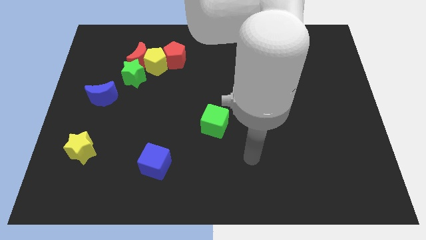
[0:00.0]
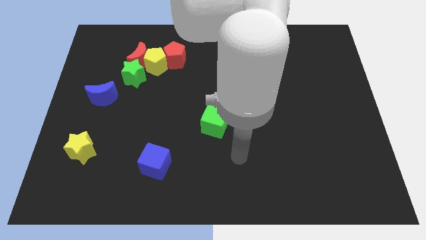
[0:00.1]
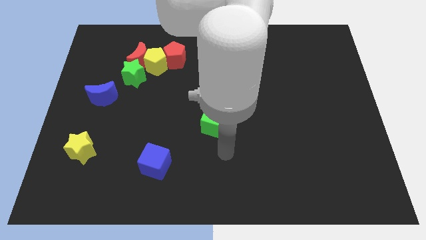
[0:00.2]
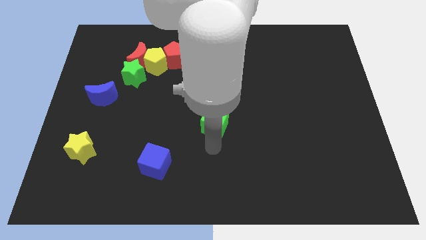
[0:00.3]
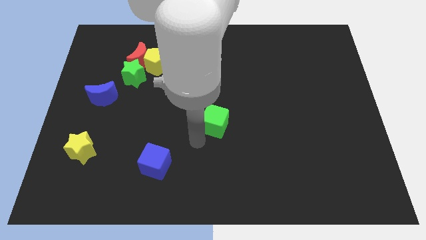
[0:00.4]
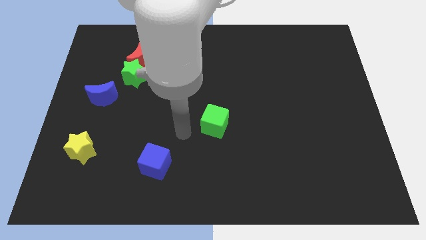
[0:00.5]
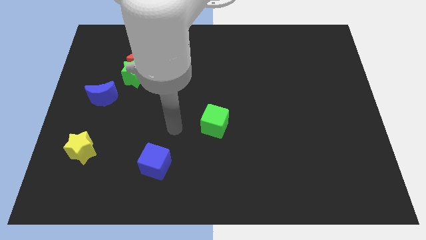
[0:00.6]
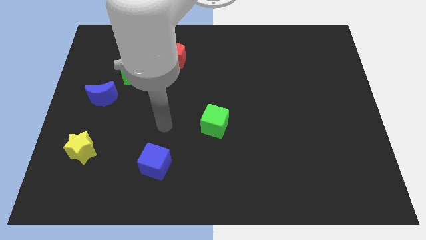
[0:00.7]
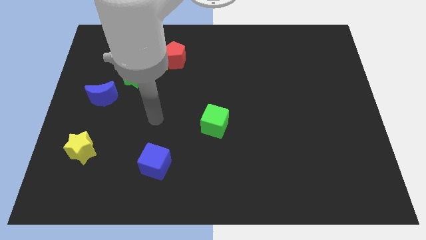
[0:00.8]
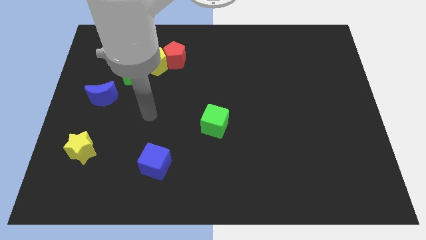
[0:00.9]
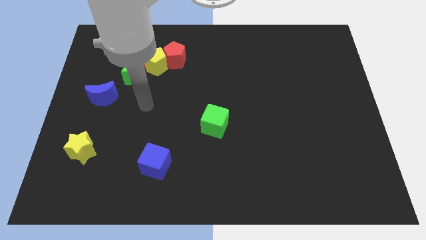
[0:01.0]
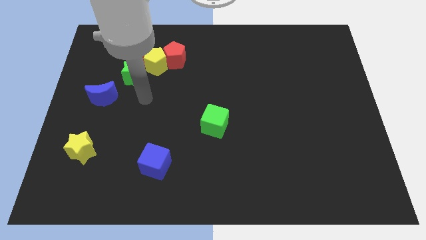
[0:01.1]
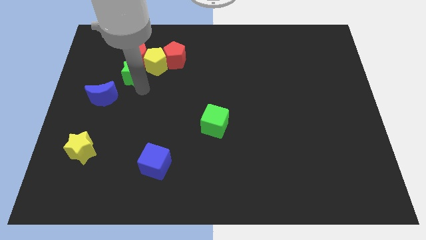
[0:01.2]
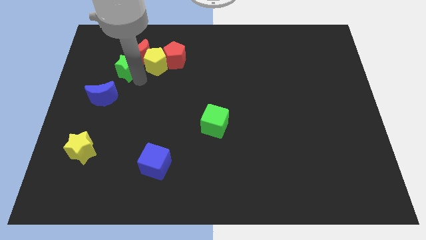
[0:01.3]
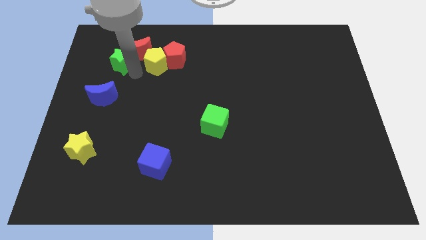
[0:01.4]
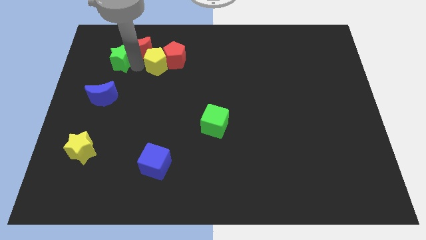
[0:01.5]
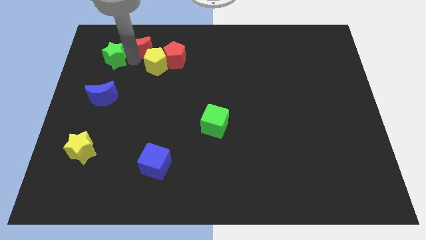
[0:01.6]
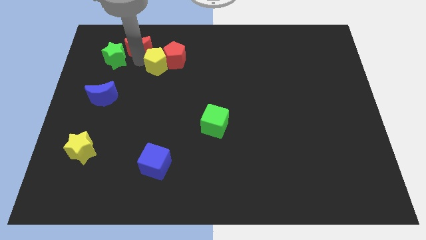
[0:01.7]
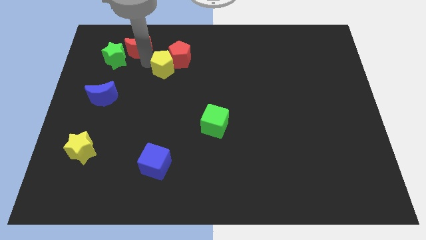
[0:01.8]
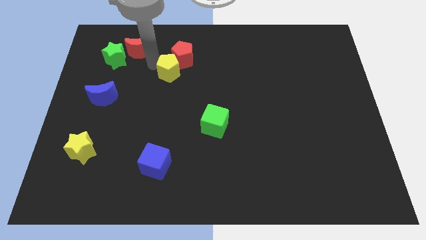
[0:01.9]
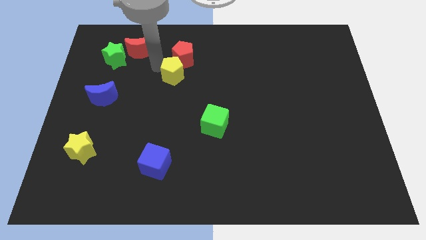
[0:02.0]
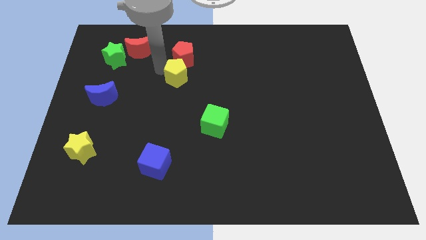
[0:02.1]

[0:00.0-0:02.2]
pull the yellow pentagon apart from the red moon, red pentagon, and green star

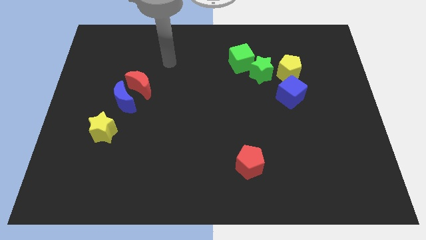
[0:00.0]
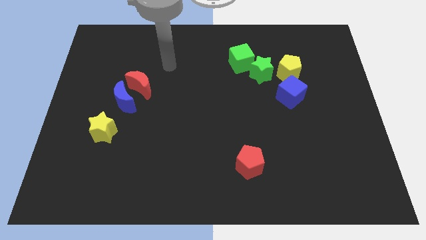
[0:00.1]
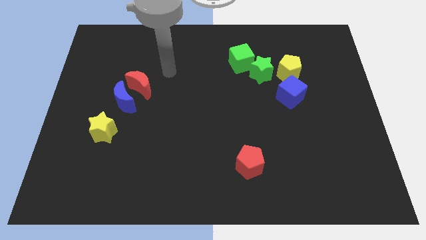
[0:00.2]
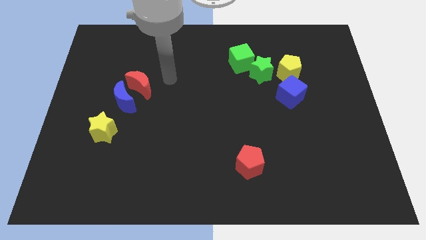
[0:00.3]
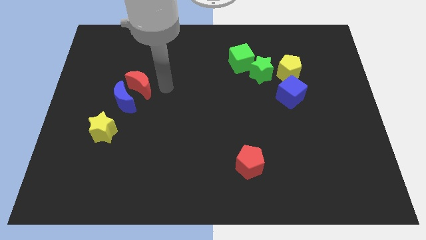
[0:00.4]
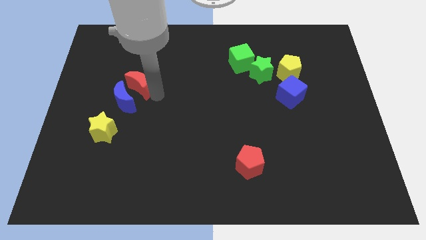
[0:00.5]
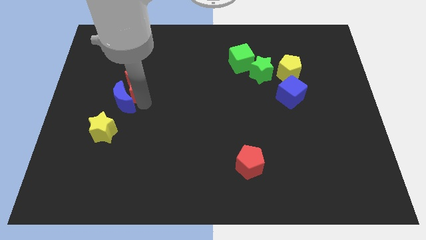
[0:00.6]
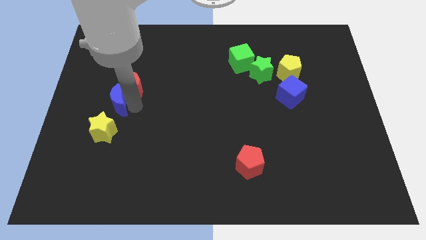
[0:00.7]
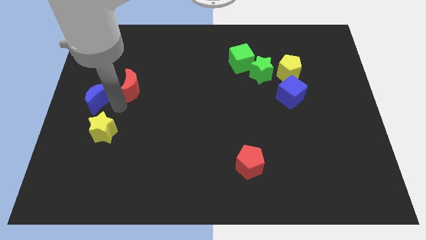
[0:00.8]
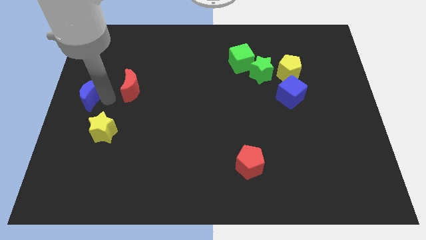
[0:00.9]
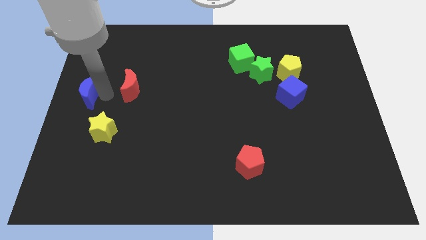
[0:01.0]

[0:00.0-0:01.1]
pull the red moon apart from the blue moon

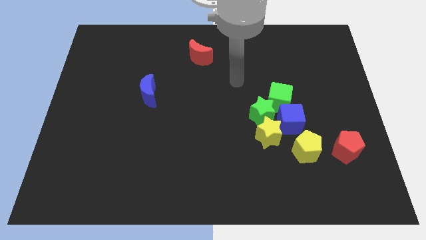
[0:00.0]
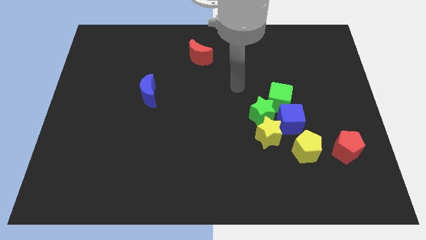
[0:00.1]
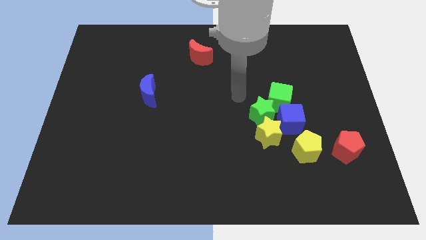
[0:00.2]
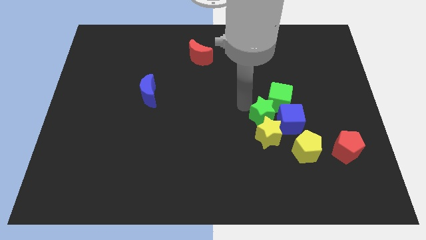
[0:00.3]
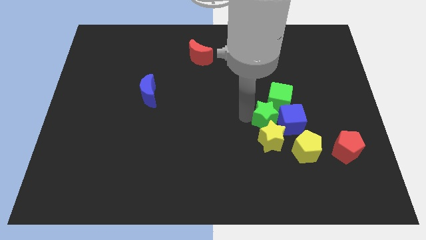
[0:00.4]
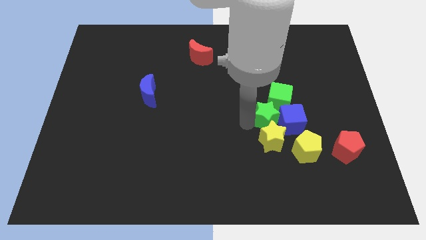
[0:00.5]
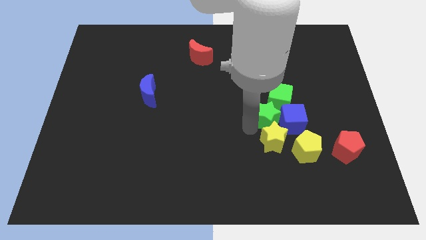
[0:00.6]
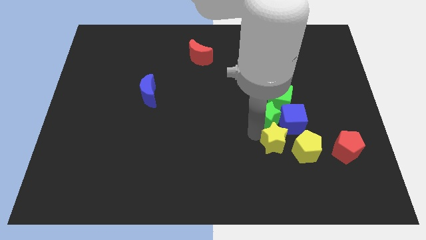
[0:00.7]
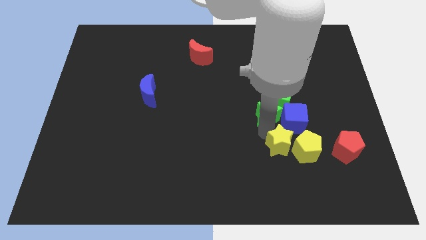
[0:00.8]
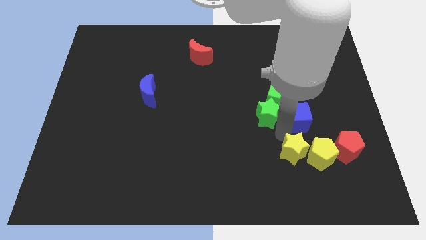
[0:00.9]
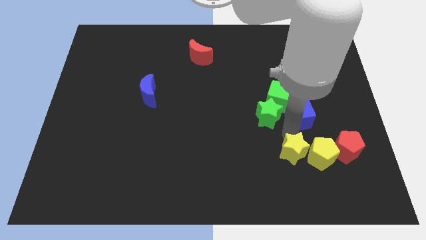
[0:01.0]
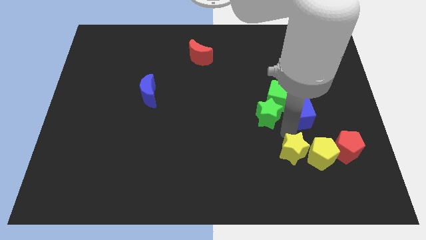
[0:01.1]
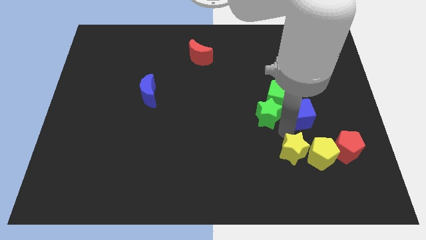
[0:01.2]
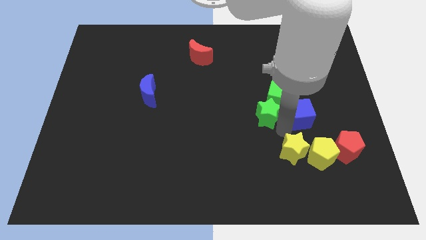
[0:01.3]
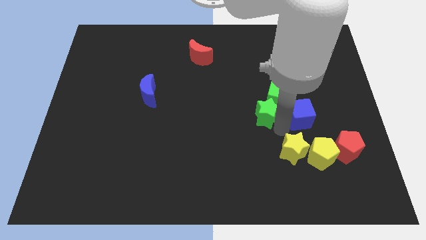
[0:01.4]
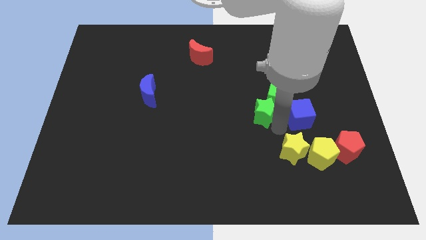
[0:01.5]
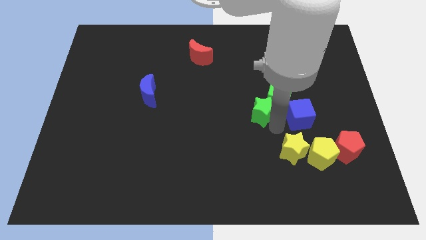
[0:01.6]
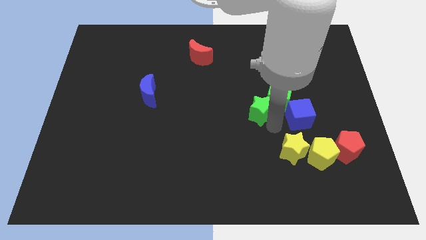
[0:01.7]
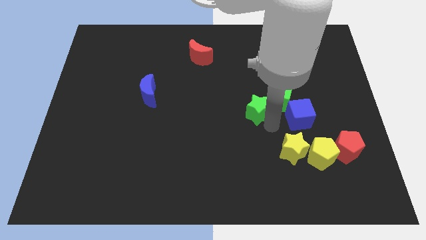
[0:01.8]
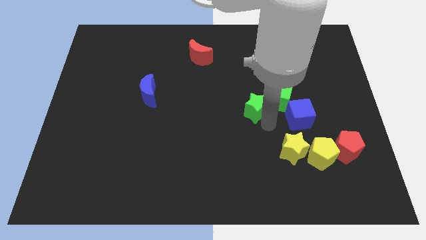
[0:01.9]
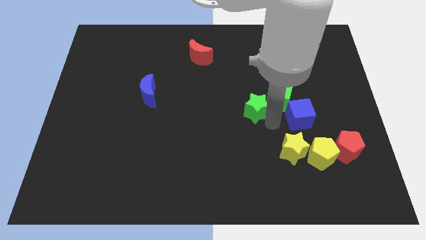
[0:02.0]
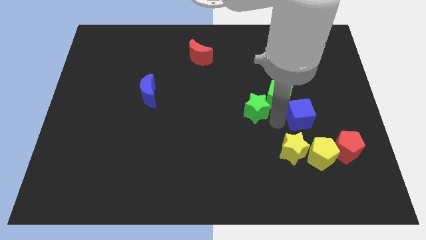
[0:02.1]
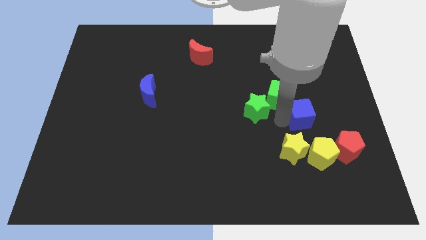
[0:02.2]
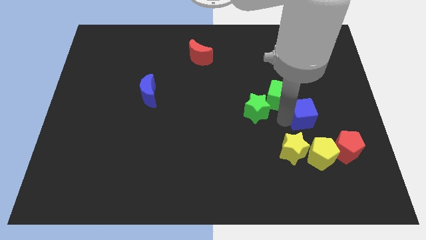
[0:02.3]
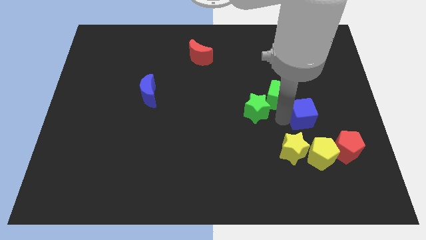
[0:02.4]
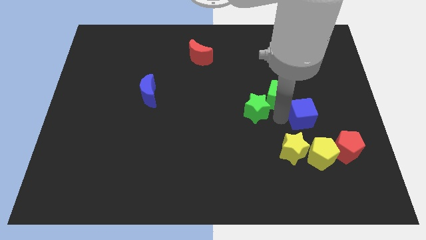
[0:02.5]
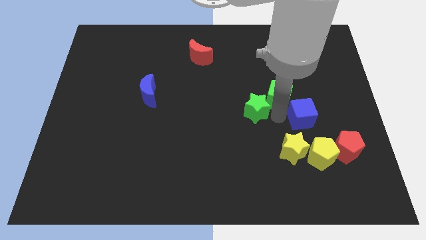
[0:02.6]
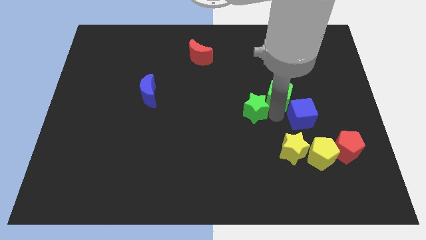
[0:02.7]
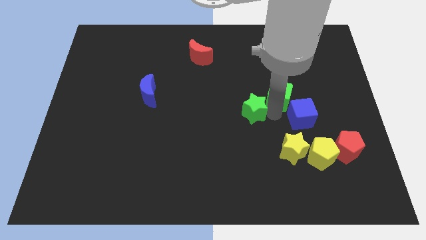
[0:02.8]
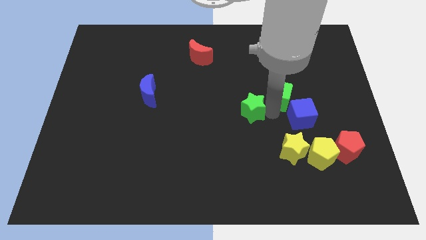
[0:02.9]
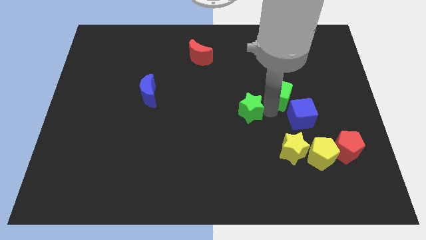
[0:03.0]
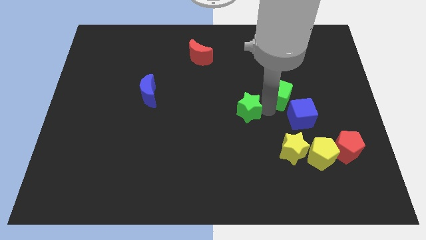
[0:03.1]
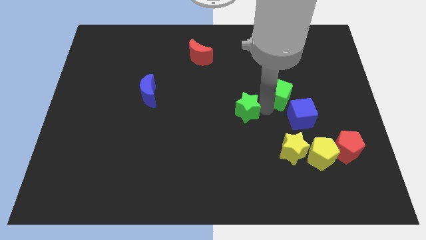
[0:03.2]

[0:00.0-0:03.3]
separate the green star from the green cube, yellow star, and blue cube

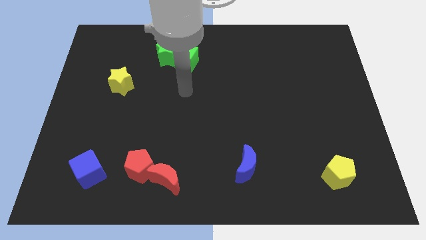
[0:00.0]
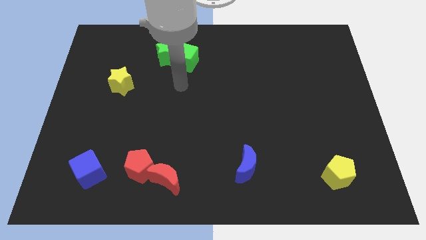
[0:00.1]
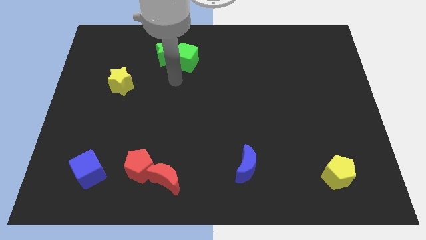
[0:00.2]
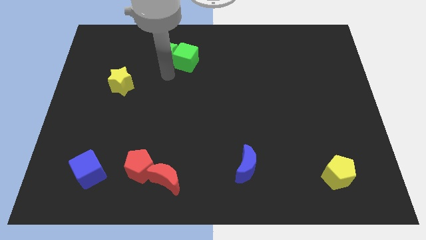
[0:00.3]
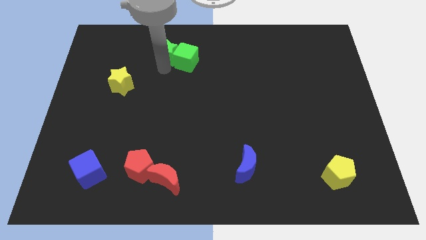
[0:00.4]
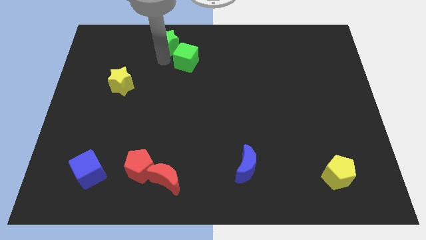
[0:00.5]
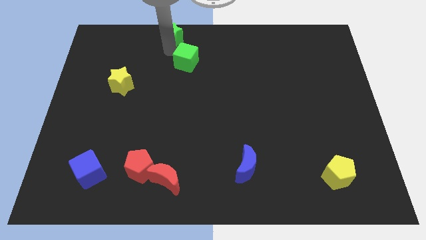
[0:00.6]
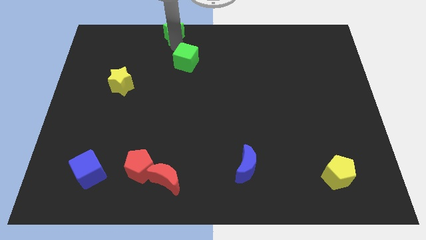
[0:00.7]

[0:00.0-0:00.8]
pull the green cube apart from the green star

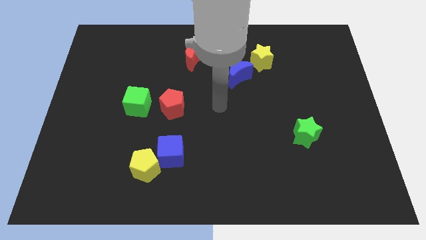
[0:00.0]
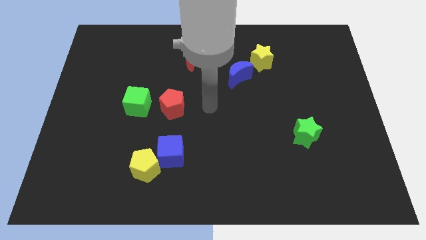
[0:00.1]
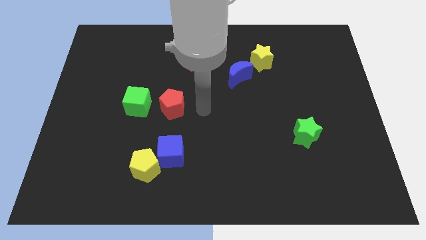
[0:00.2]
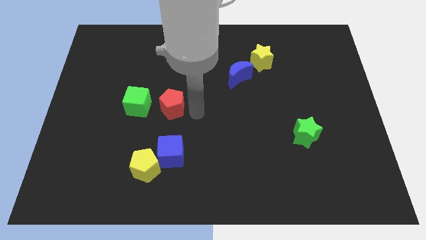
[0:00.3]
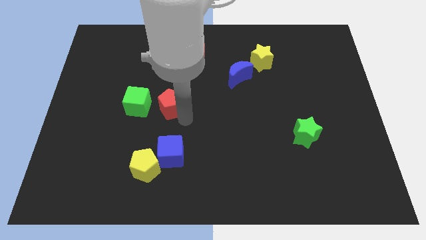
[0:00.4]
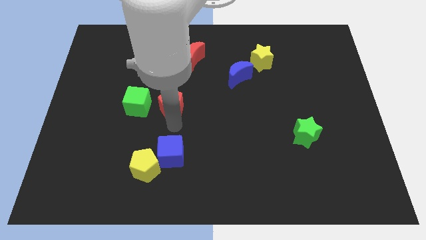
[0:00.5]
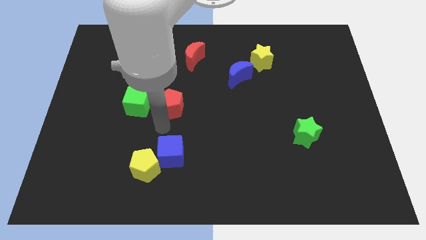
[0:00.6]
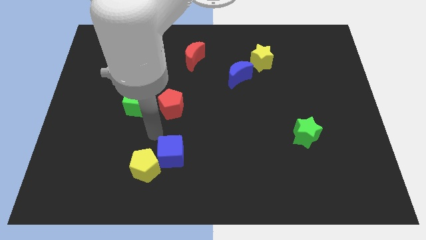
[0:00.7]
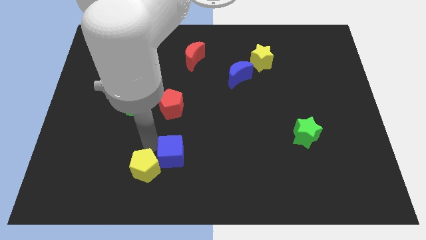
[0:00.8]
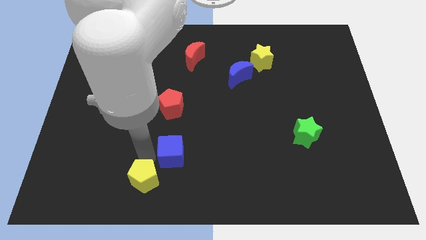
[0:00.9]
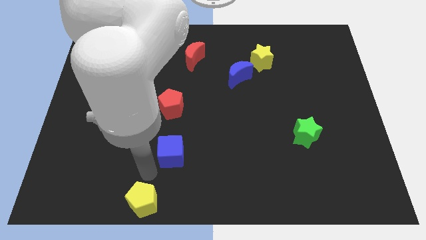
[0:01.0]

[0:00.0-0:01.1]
pull the blue cube apart from the yellow pentagon

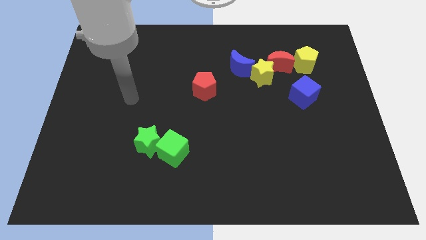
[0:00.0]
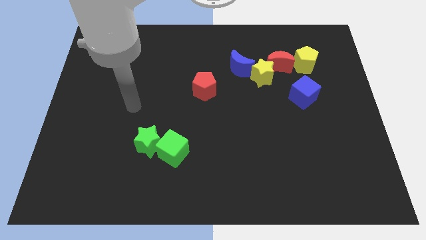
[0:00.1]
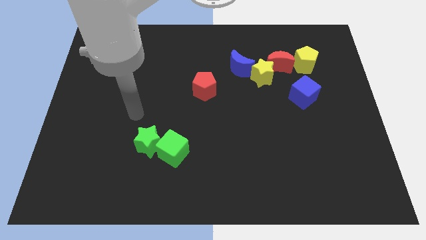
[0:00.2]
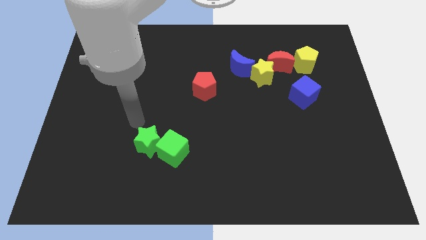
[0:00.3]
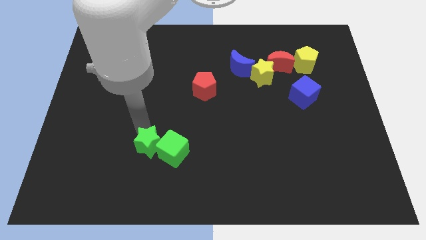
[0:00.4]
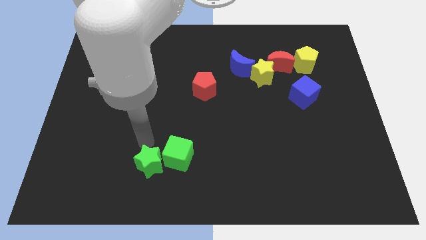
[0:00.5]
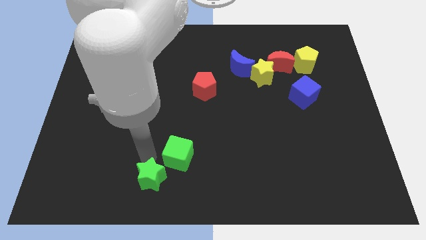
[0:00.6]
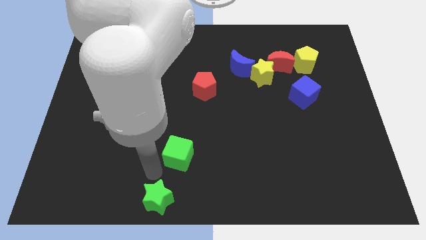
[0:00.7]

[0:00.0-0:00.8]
move the green cube away from the green star
